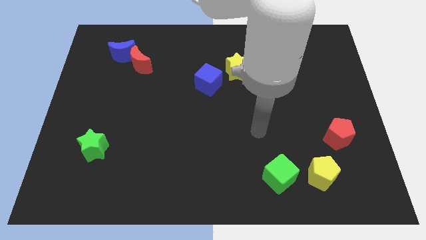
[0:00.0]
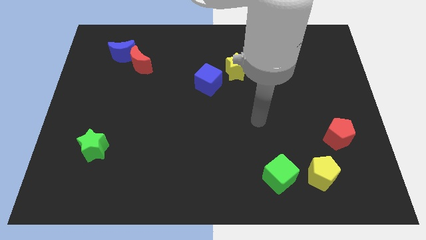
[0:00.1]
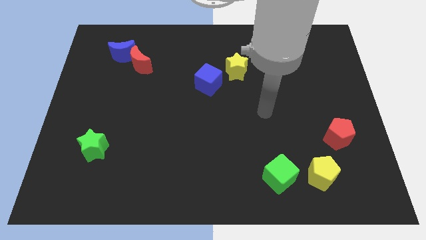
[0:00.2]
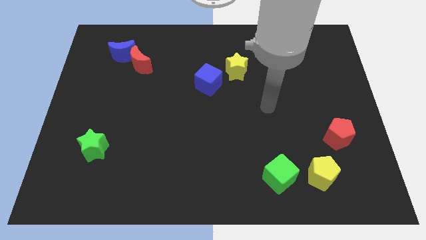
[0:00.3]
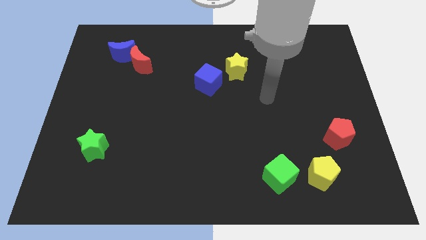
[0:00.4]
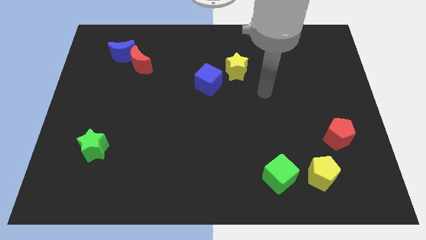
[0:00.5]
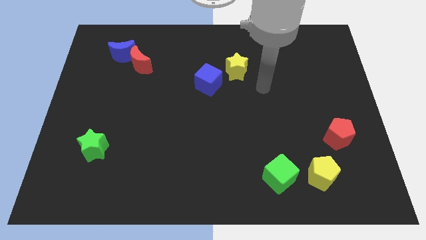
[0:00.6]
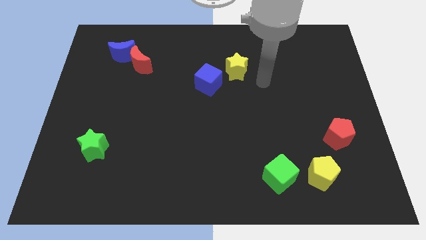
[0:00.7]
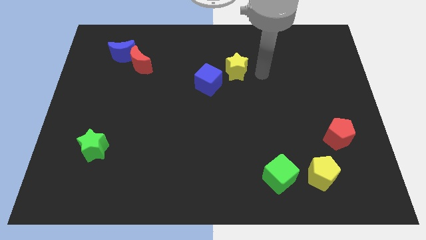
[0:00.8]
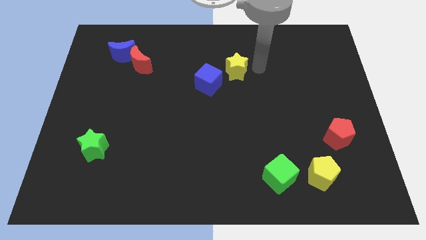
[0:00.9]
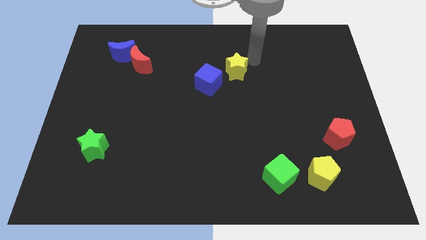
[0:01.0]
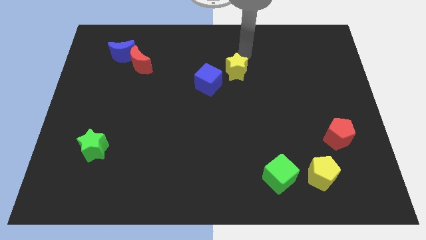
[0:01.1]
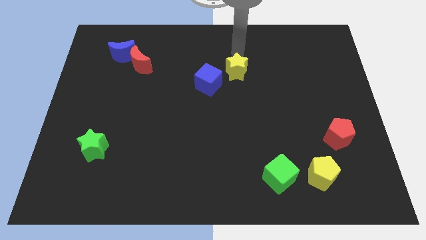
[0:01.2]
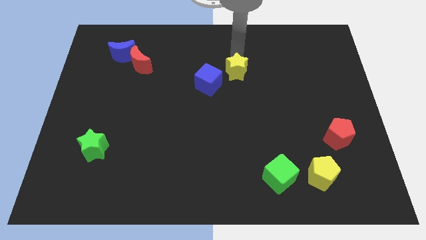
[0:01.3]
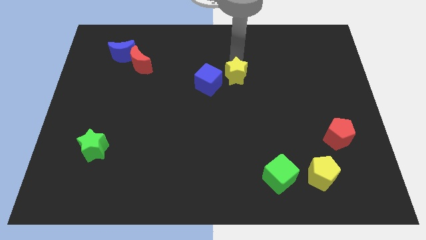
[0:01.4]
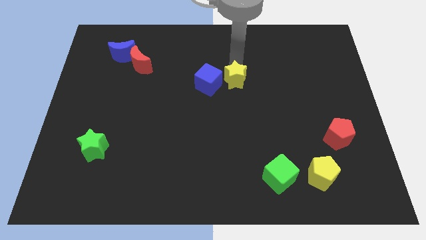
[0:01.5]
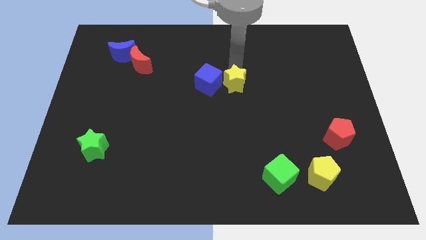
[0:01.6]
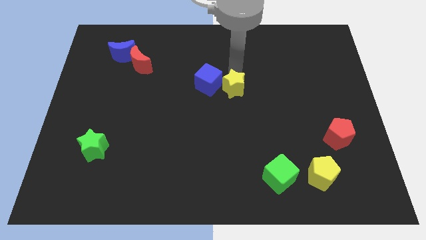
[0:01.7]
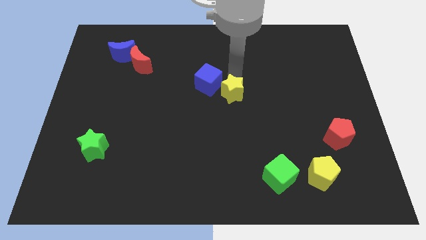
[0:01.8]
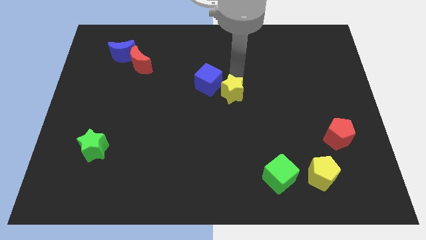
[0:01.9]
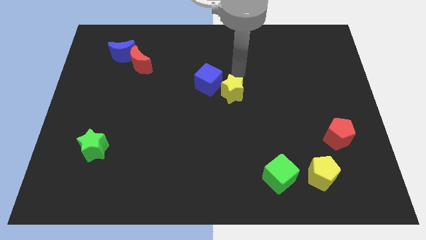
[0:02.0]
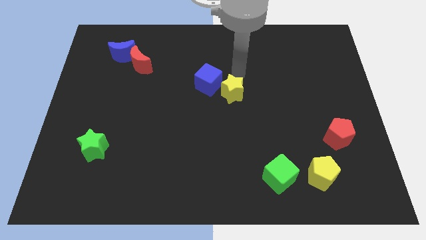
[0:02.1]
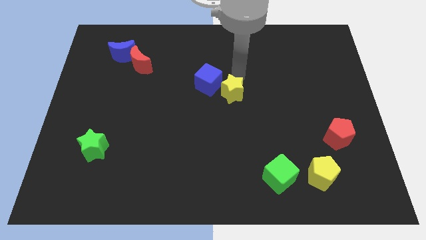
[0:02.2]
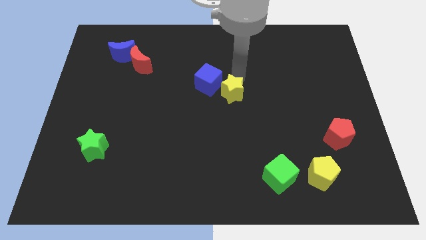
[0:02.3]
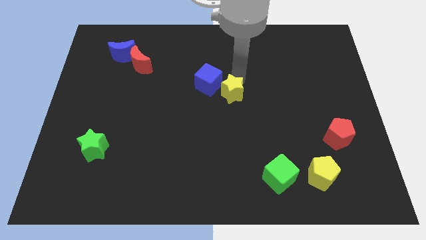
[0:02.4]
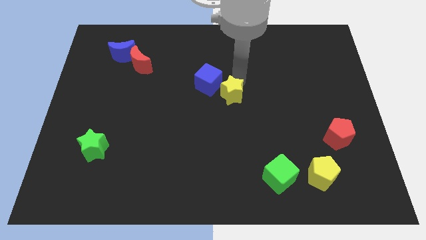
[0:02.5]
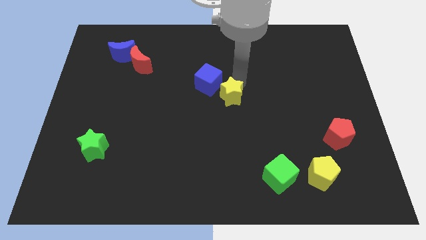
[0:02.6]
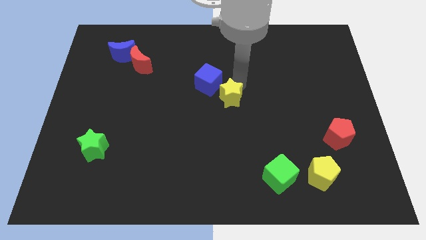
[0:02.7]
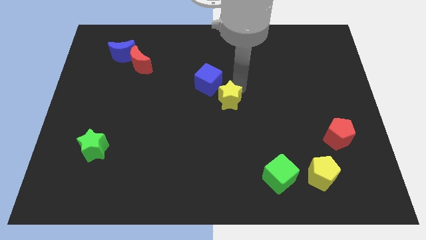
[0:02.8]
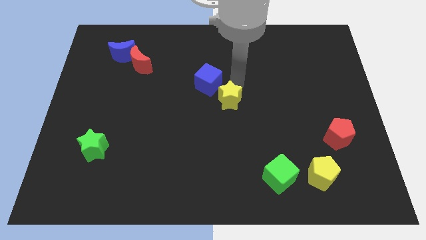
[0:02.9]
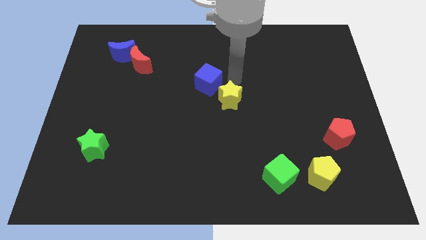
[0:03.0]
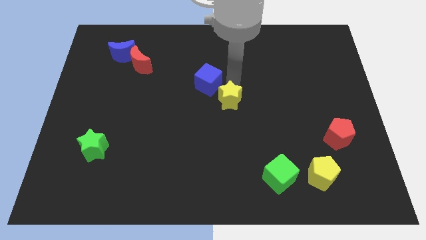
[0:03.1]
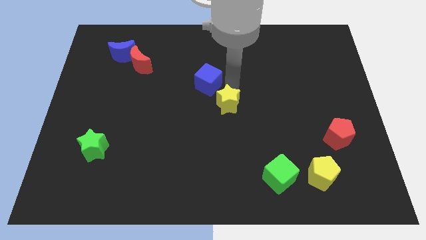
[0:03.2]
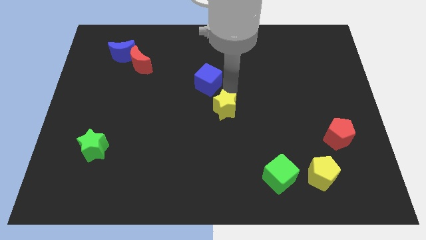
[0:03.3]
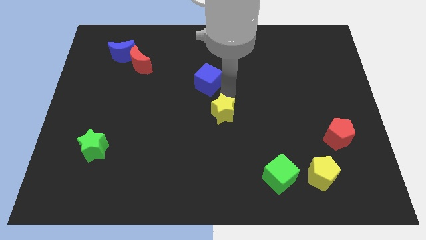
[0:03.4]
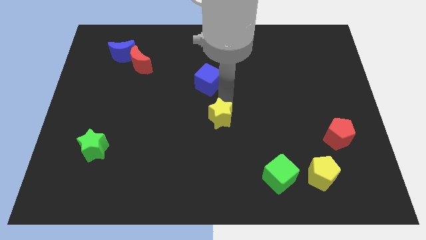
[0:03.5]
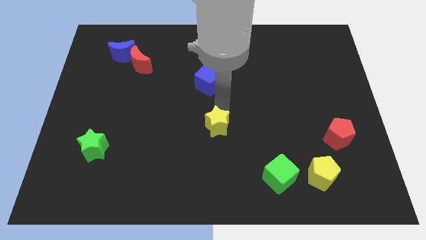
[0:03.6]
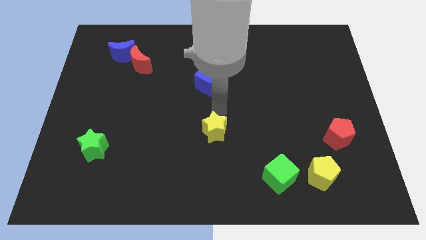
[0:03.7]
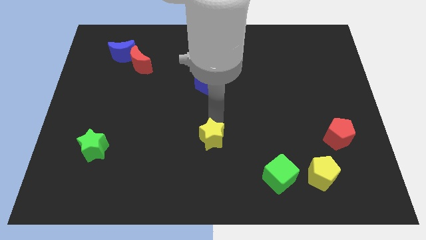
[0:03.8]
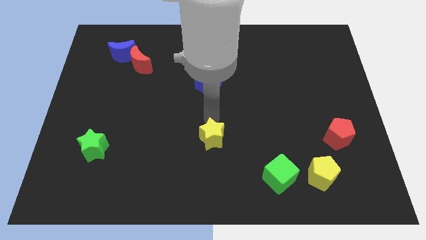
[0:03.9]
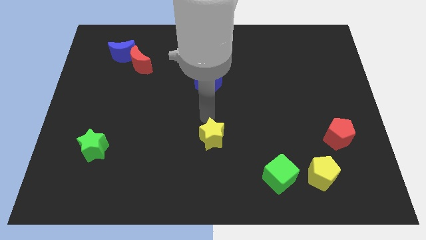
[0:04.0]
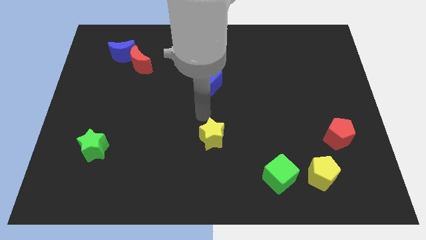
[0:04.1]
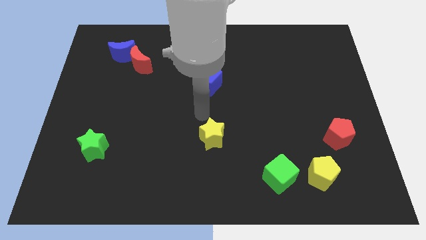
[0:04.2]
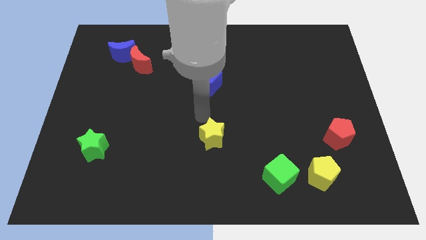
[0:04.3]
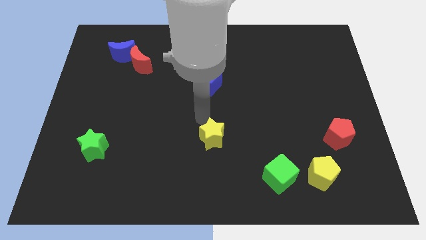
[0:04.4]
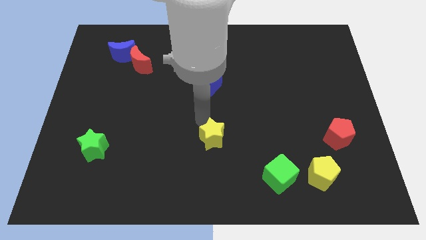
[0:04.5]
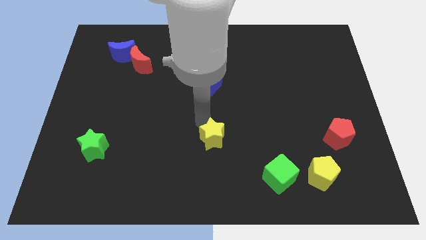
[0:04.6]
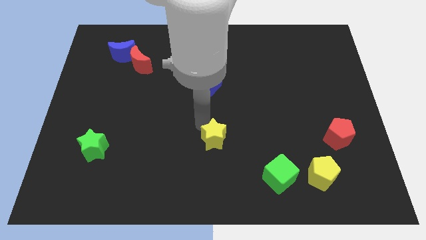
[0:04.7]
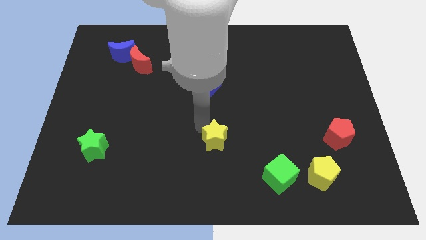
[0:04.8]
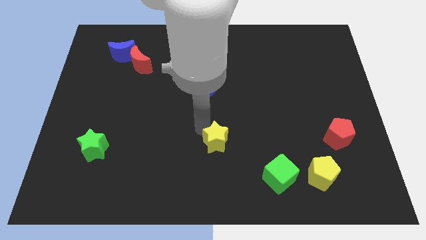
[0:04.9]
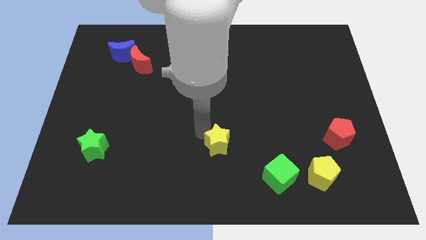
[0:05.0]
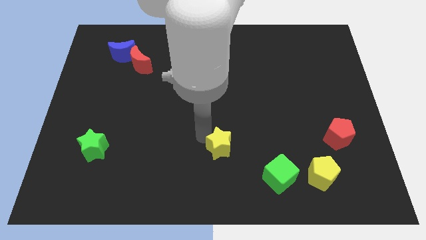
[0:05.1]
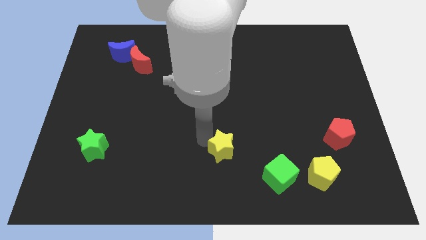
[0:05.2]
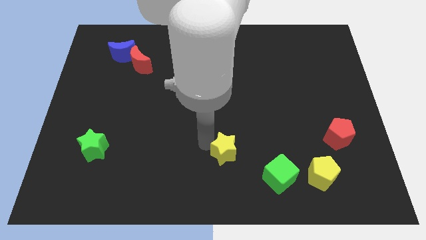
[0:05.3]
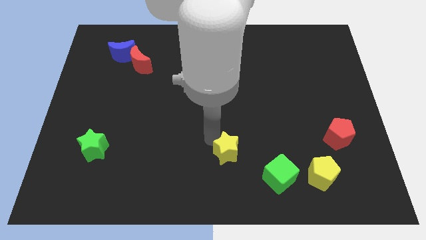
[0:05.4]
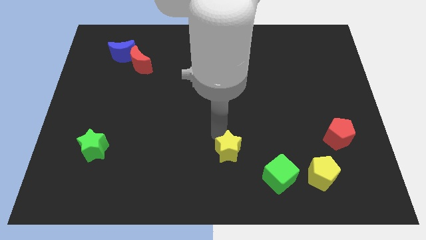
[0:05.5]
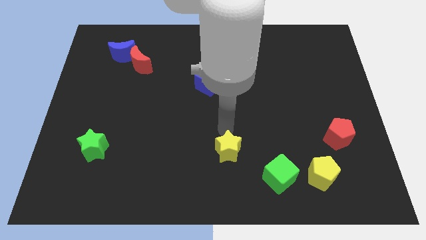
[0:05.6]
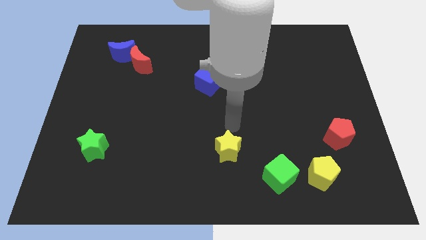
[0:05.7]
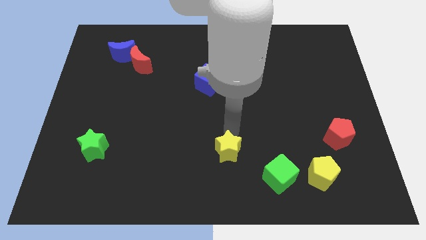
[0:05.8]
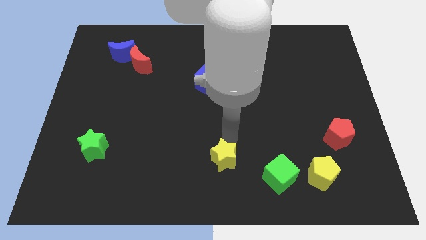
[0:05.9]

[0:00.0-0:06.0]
put the yellow star to the bottom side
